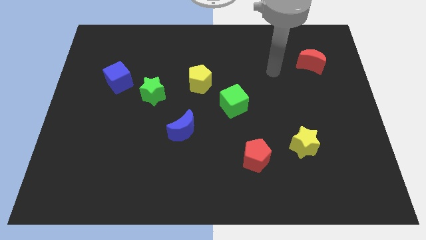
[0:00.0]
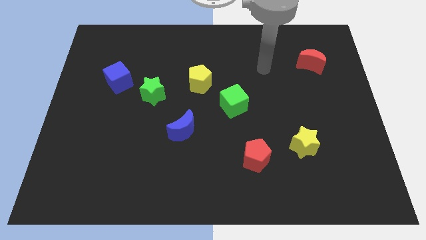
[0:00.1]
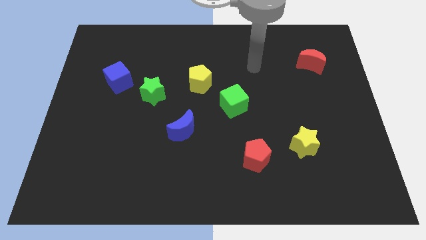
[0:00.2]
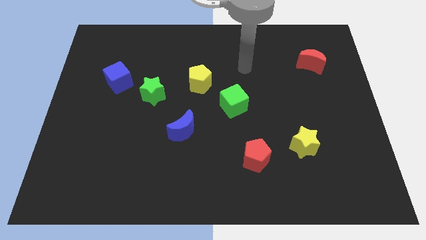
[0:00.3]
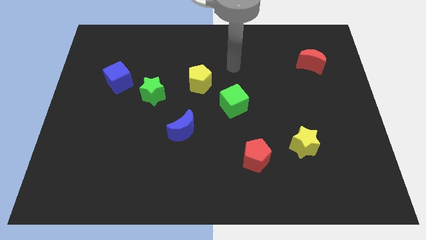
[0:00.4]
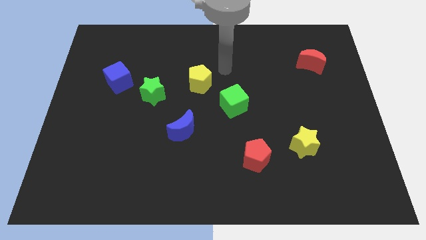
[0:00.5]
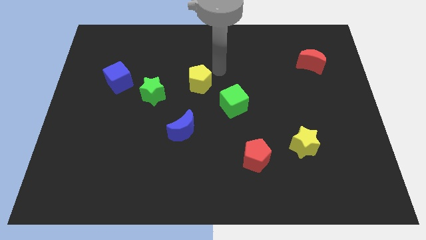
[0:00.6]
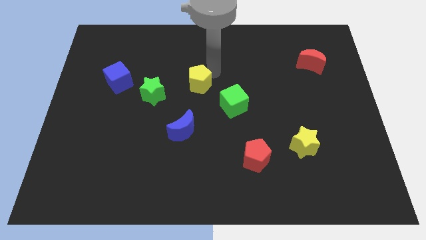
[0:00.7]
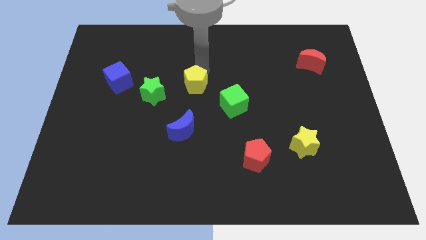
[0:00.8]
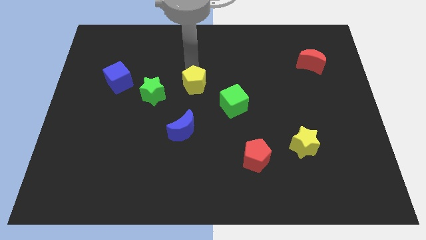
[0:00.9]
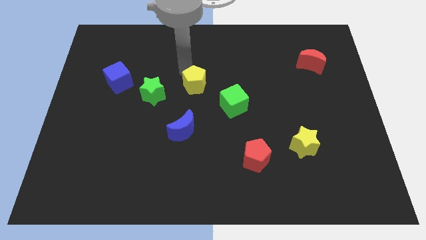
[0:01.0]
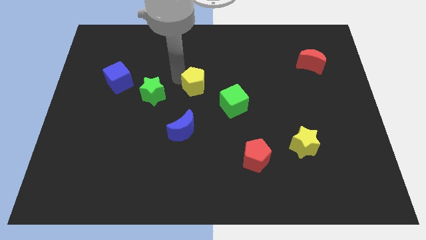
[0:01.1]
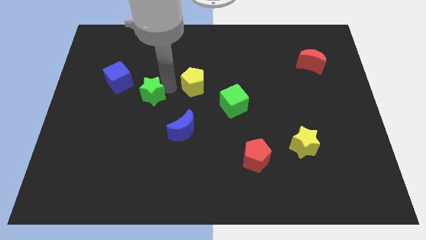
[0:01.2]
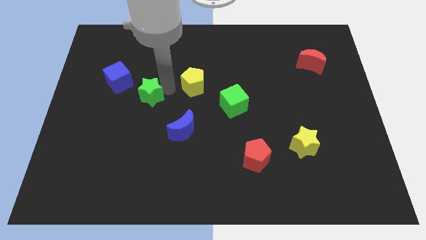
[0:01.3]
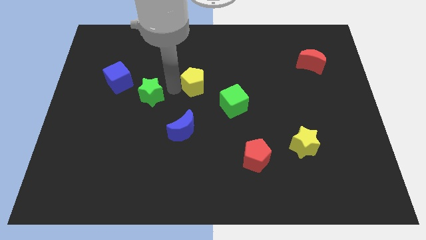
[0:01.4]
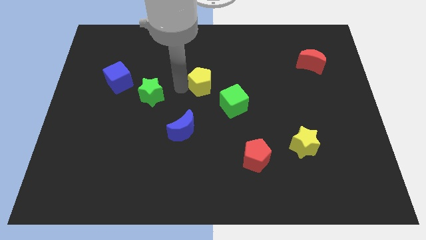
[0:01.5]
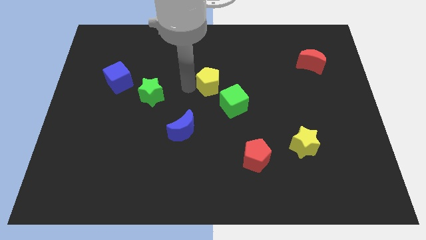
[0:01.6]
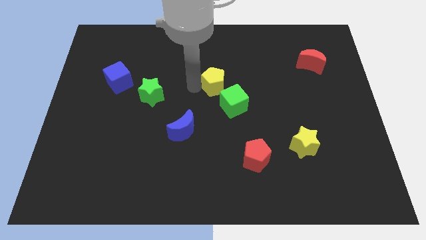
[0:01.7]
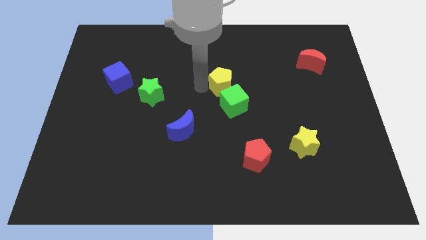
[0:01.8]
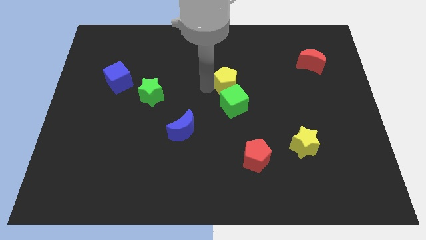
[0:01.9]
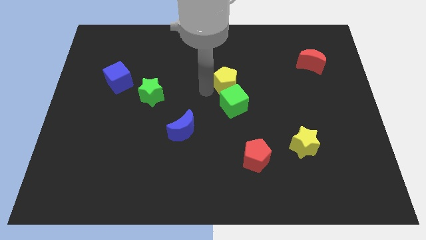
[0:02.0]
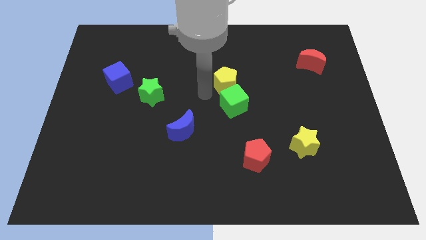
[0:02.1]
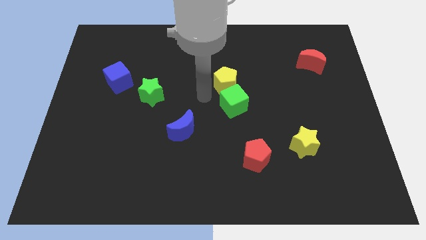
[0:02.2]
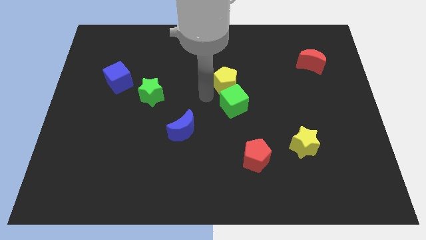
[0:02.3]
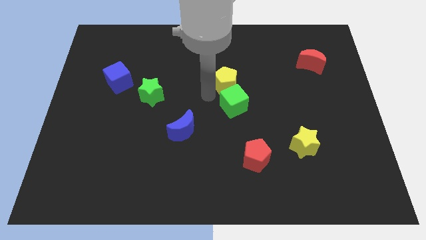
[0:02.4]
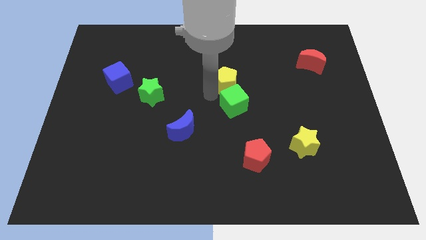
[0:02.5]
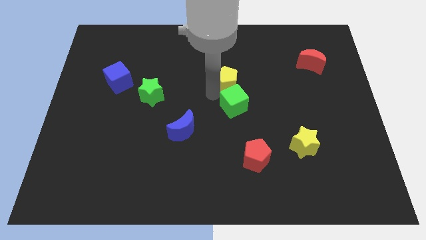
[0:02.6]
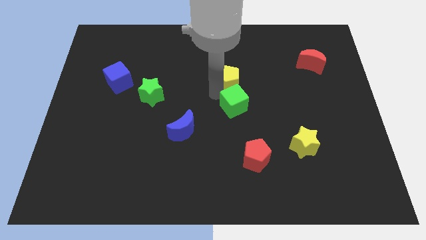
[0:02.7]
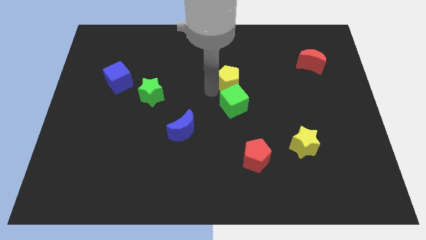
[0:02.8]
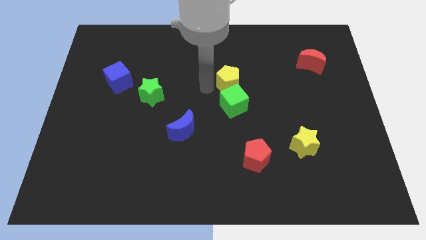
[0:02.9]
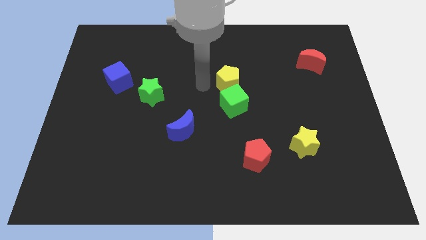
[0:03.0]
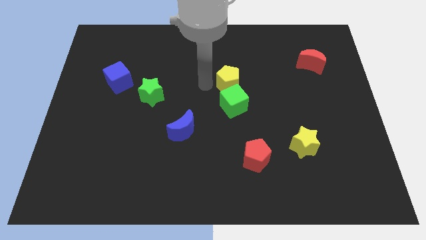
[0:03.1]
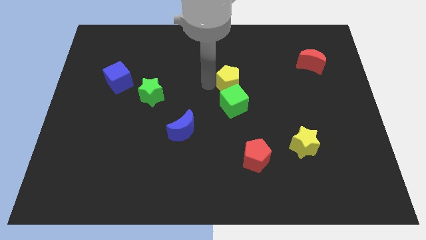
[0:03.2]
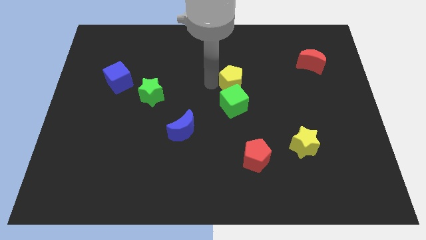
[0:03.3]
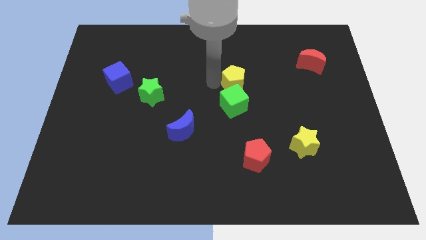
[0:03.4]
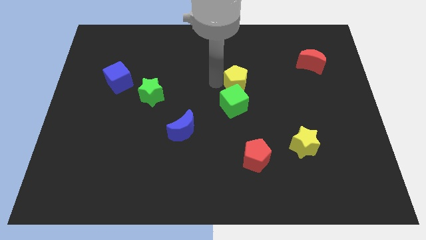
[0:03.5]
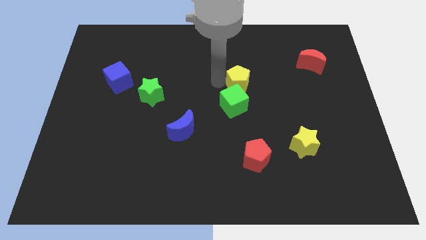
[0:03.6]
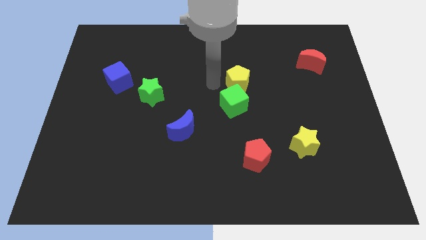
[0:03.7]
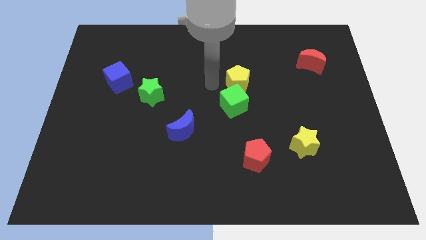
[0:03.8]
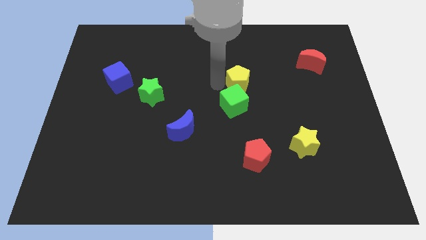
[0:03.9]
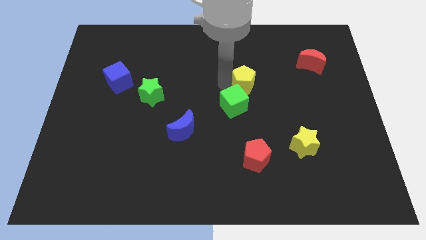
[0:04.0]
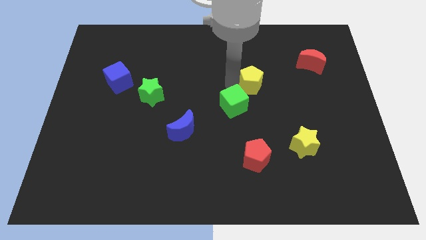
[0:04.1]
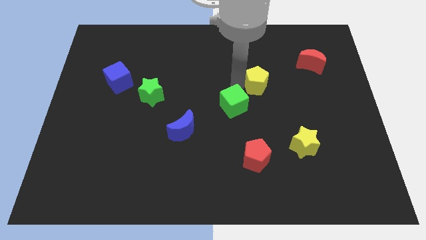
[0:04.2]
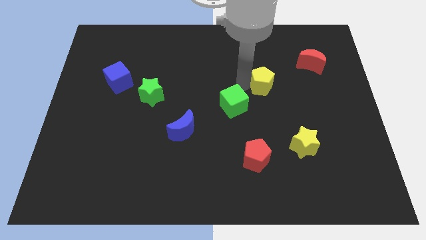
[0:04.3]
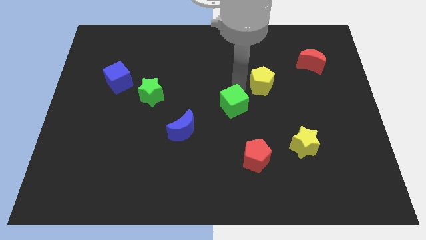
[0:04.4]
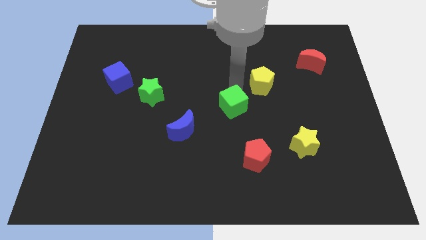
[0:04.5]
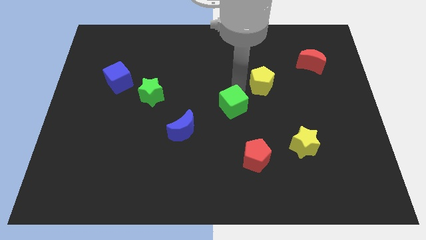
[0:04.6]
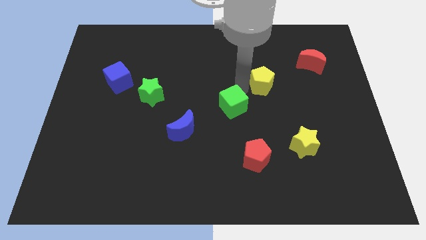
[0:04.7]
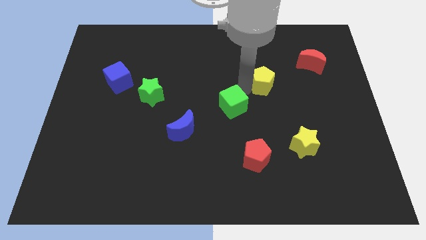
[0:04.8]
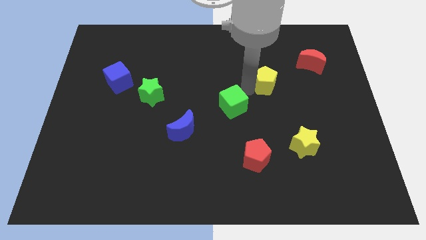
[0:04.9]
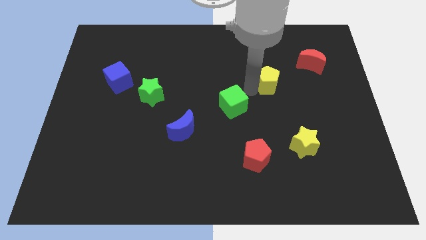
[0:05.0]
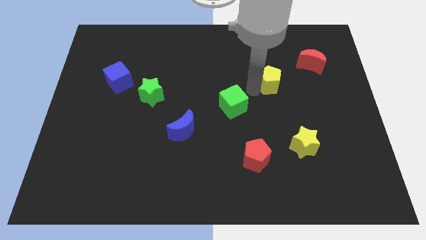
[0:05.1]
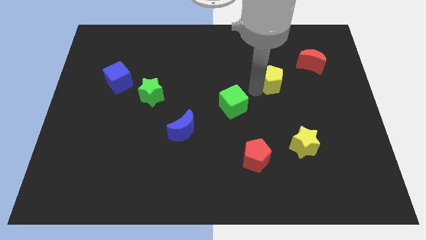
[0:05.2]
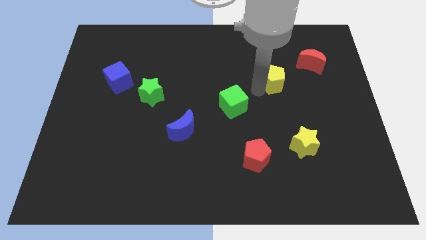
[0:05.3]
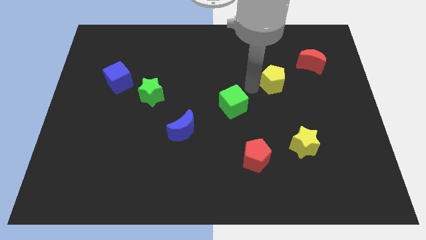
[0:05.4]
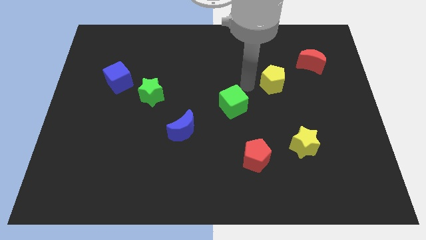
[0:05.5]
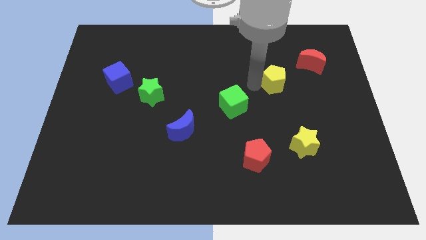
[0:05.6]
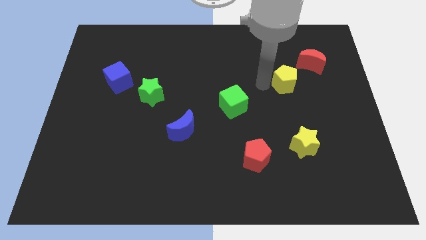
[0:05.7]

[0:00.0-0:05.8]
slide the yellow pentagon right

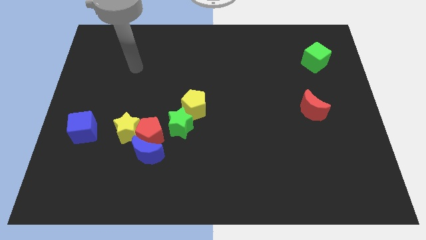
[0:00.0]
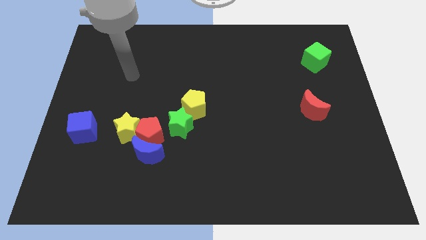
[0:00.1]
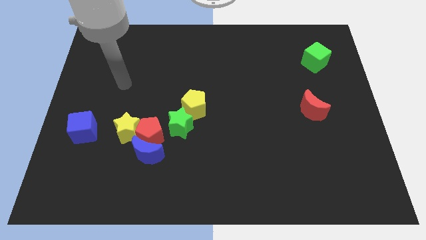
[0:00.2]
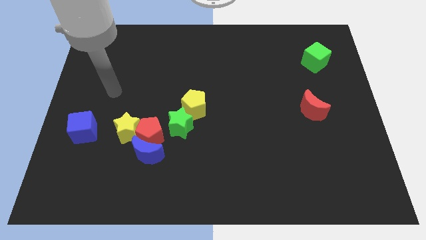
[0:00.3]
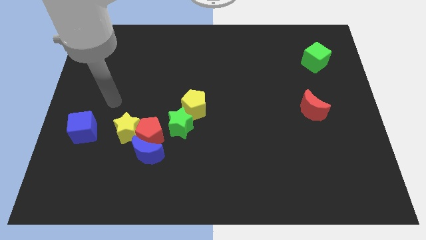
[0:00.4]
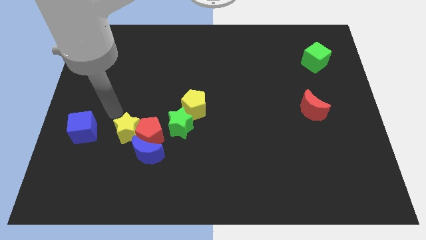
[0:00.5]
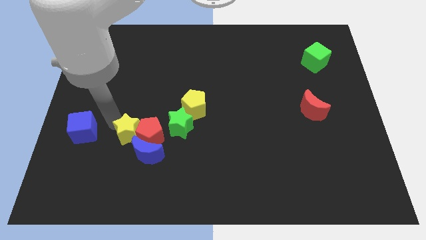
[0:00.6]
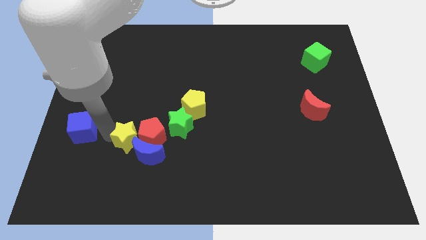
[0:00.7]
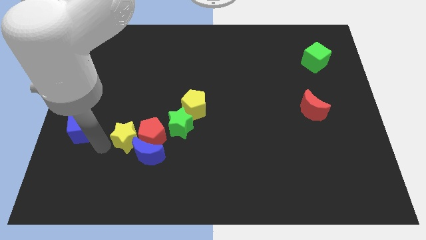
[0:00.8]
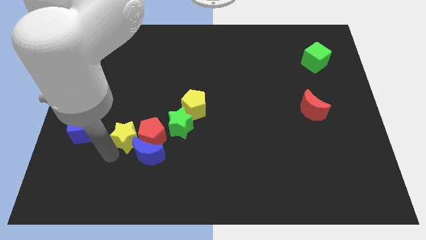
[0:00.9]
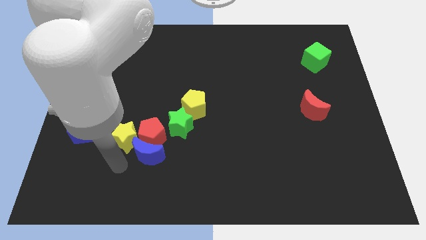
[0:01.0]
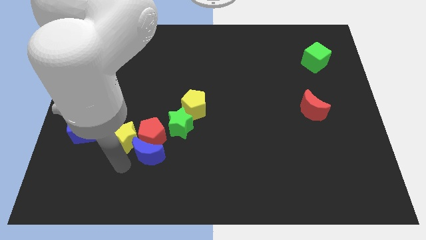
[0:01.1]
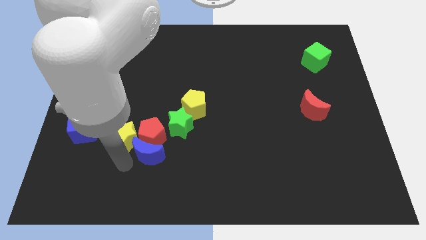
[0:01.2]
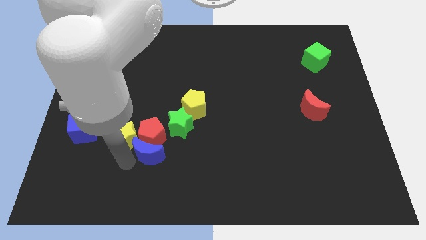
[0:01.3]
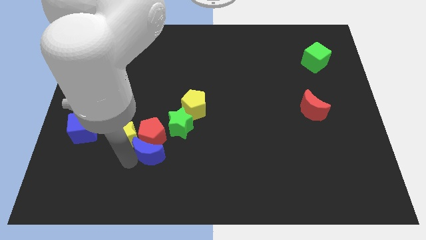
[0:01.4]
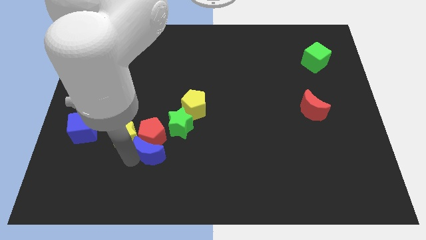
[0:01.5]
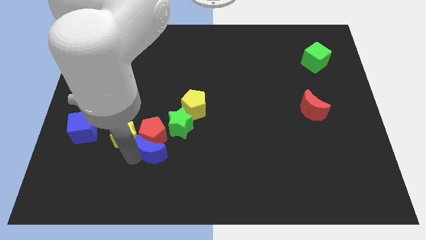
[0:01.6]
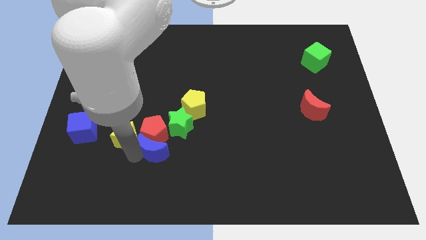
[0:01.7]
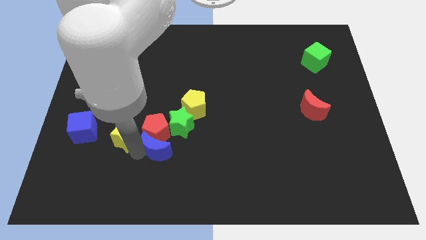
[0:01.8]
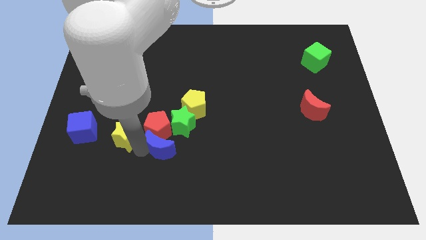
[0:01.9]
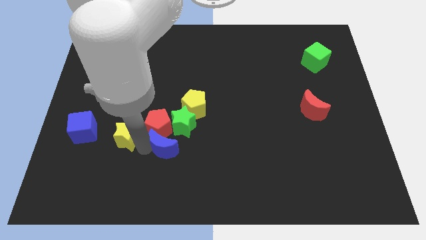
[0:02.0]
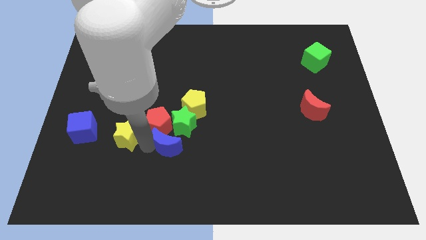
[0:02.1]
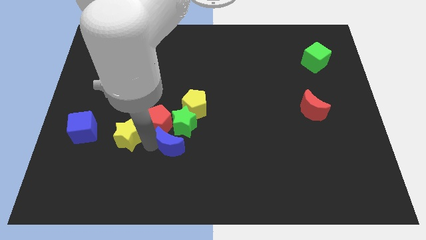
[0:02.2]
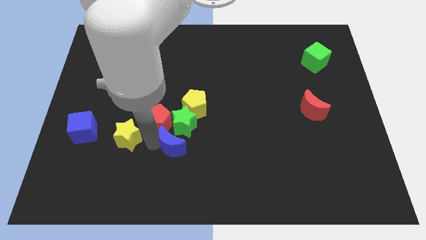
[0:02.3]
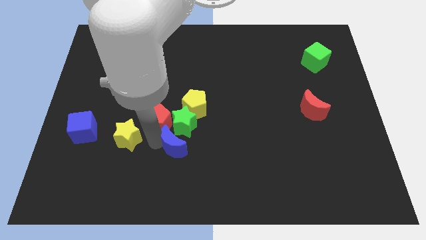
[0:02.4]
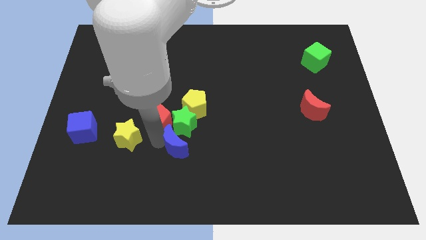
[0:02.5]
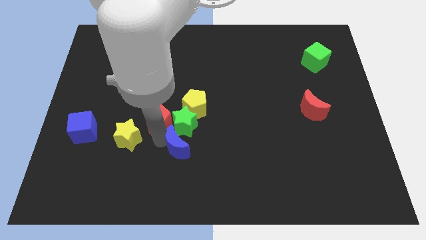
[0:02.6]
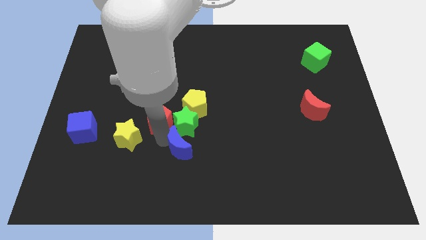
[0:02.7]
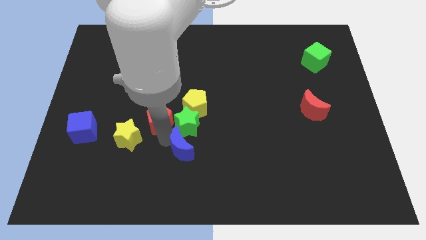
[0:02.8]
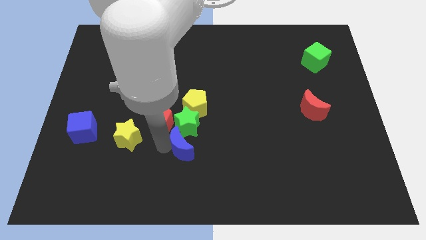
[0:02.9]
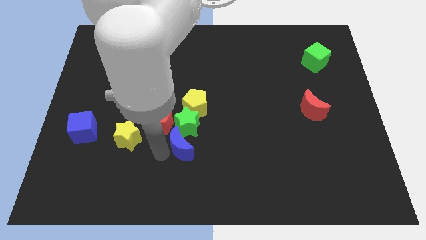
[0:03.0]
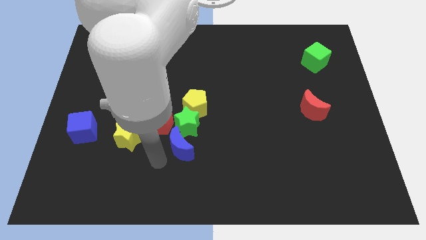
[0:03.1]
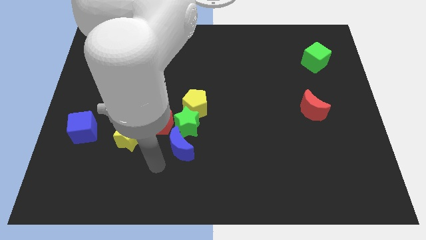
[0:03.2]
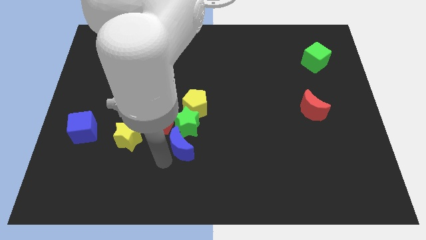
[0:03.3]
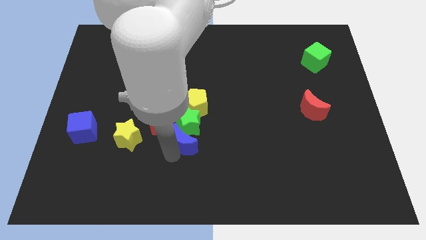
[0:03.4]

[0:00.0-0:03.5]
slightly move the blue moon up and to the right
